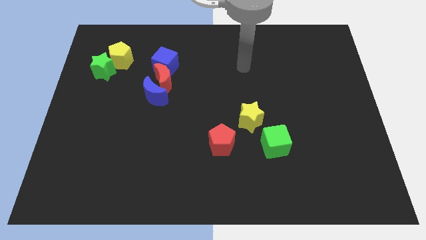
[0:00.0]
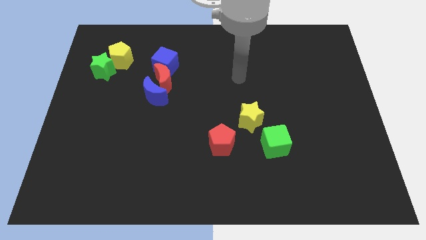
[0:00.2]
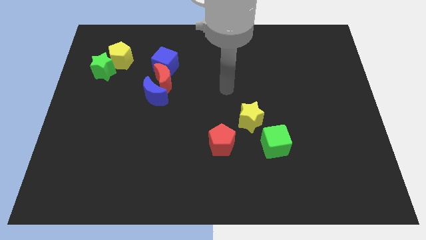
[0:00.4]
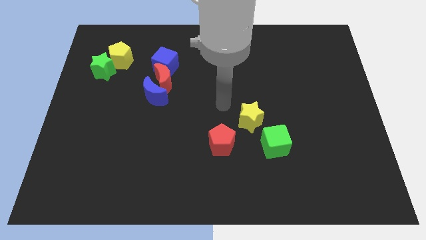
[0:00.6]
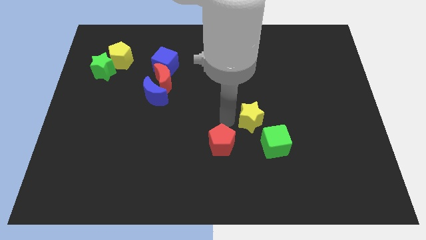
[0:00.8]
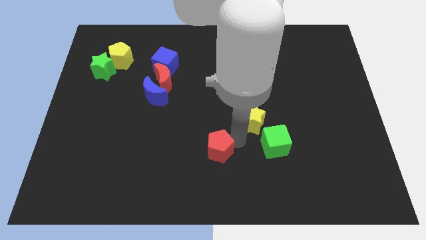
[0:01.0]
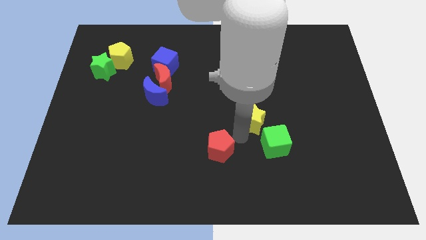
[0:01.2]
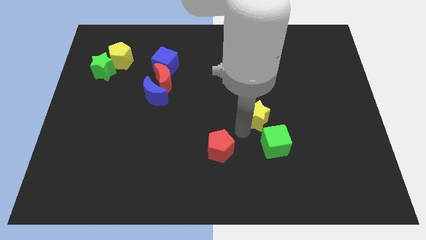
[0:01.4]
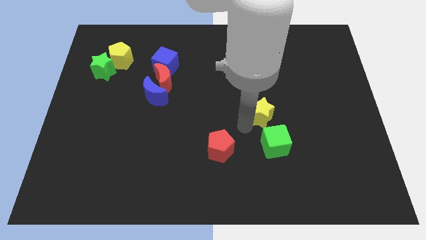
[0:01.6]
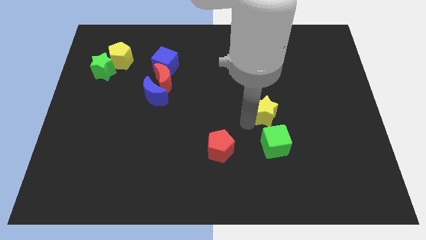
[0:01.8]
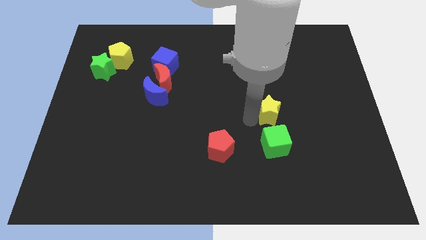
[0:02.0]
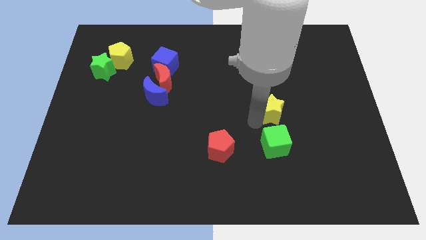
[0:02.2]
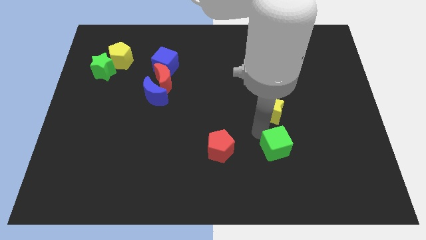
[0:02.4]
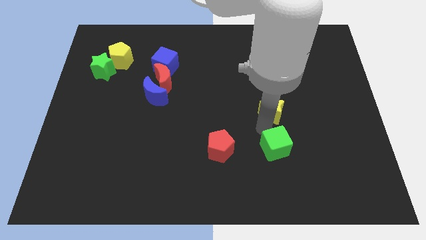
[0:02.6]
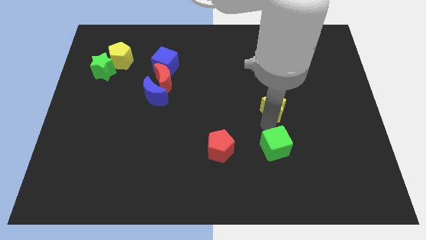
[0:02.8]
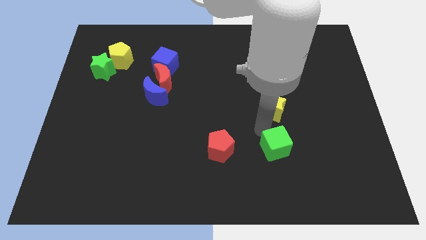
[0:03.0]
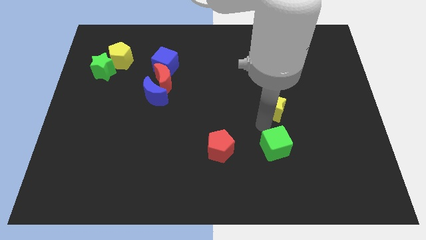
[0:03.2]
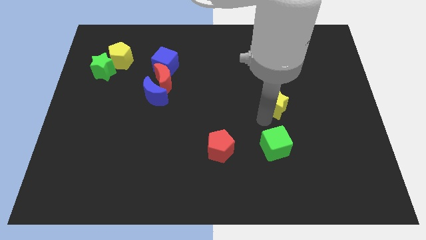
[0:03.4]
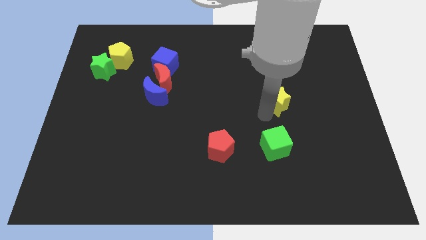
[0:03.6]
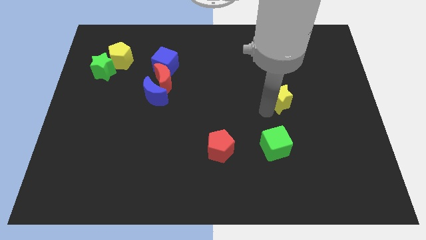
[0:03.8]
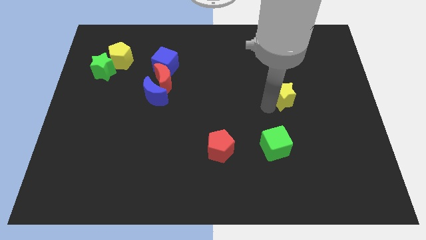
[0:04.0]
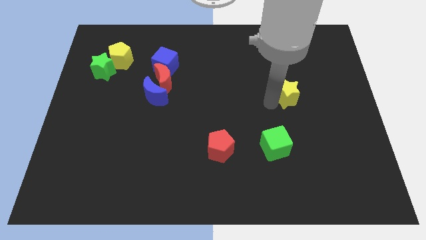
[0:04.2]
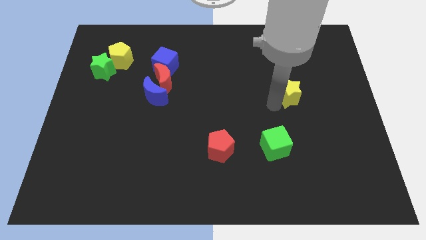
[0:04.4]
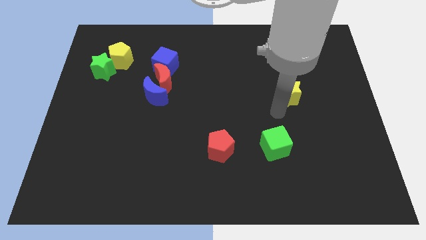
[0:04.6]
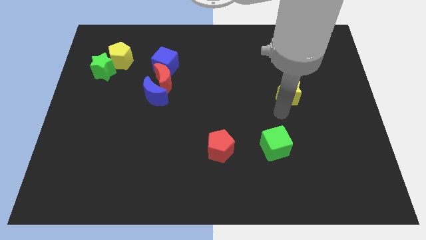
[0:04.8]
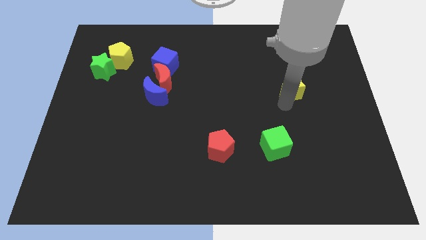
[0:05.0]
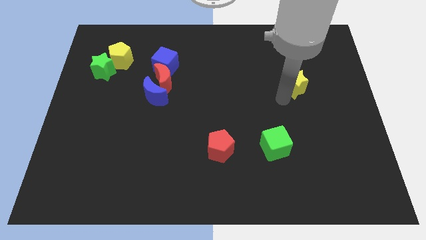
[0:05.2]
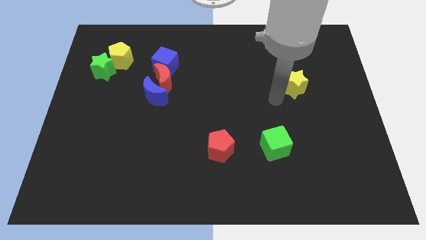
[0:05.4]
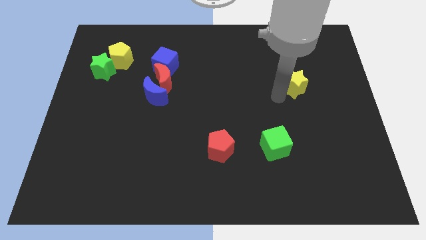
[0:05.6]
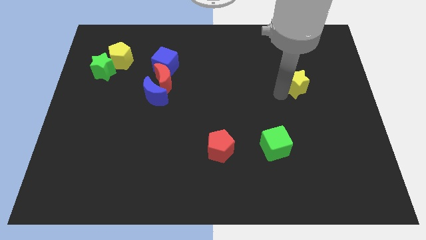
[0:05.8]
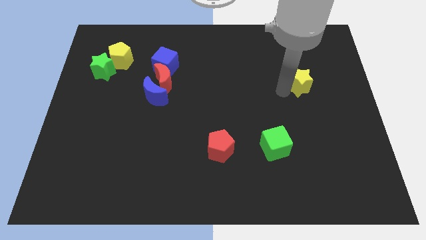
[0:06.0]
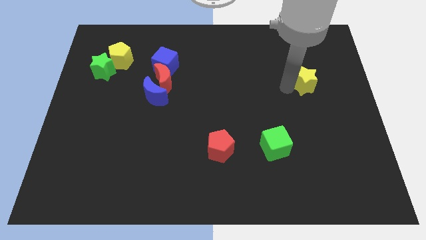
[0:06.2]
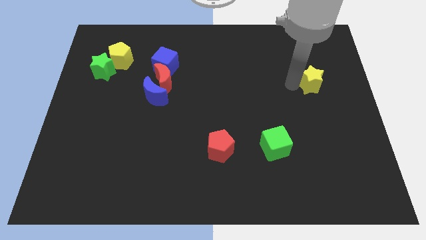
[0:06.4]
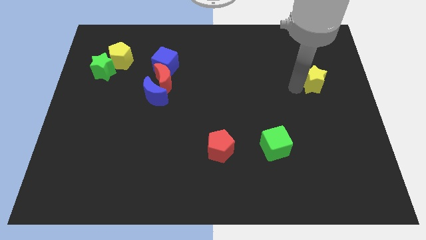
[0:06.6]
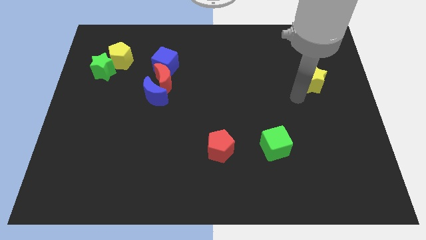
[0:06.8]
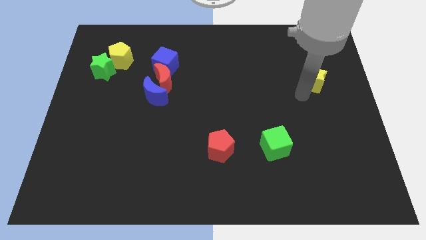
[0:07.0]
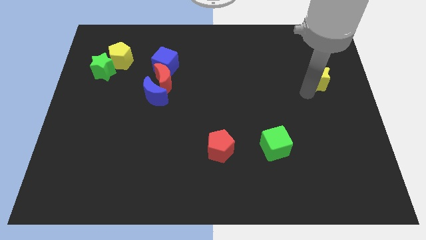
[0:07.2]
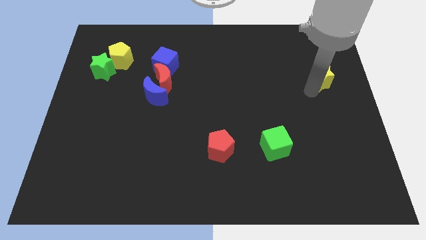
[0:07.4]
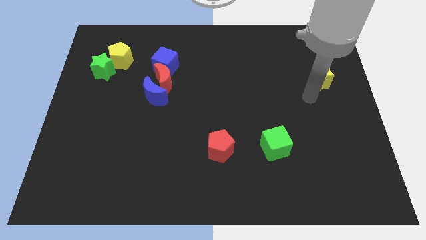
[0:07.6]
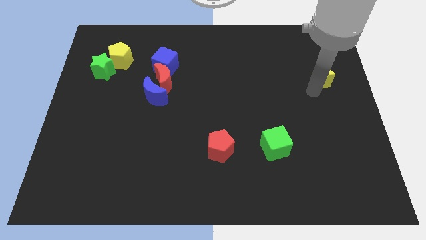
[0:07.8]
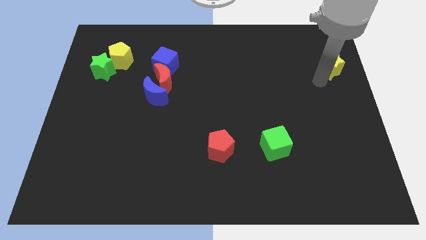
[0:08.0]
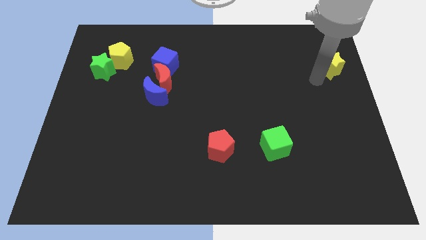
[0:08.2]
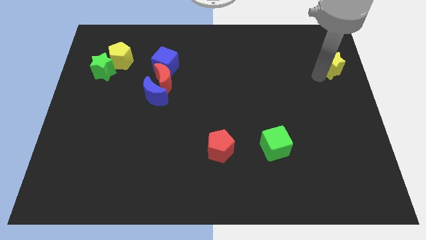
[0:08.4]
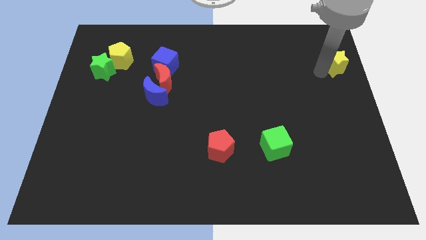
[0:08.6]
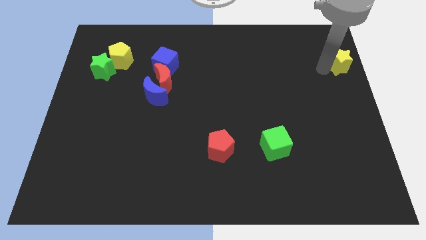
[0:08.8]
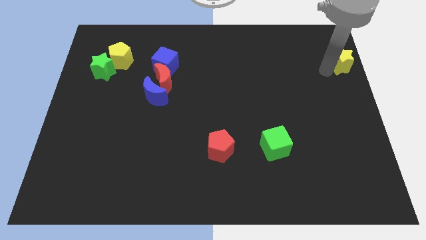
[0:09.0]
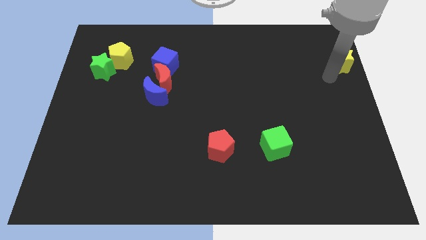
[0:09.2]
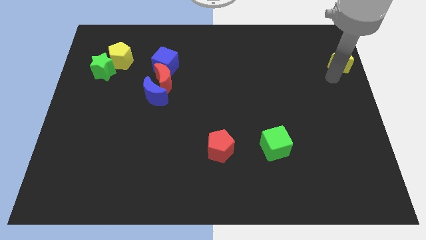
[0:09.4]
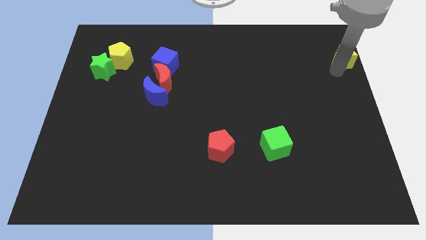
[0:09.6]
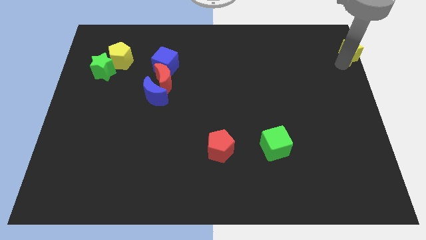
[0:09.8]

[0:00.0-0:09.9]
put the yellow star to the upper right corner

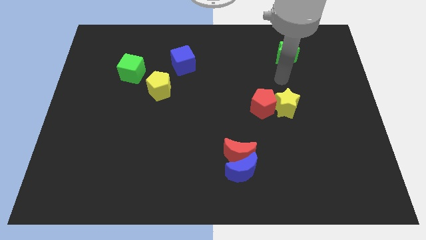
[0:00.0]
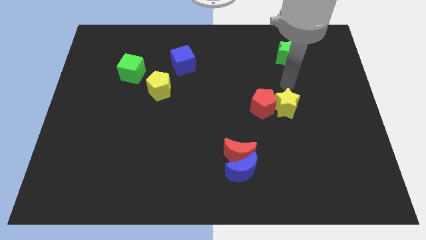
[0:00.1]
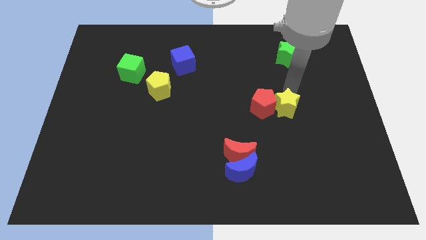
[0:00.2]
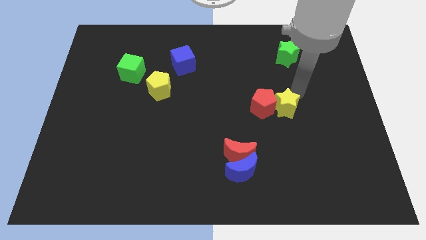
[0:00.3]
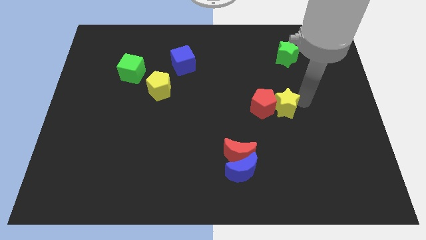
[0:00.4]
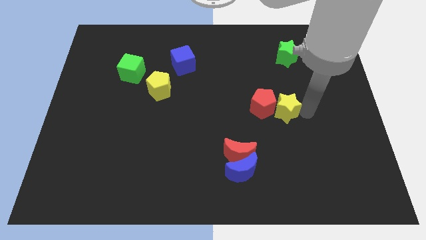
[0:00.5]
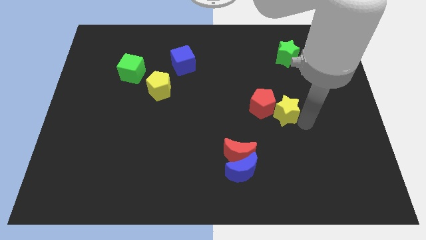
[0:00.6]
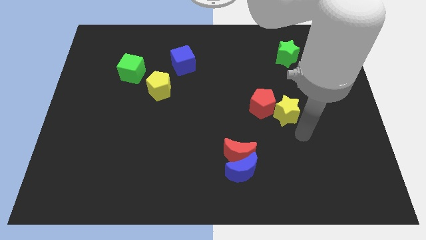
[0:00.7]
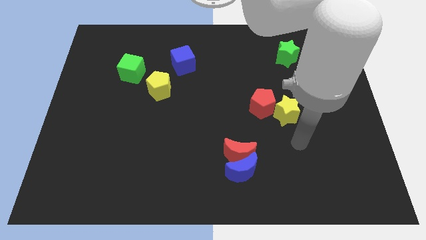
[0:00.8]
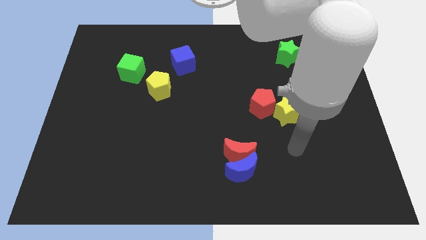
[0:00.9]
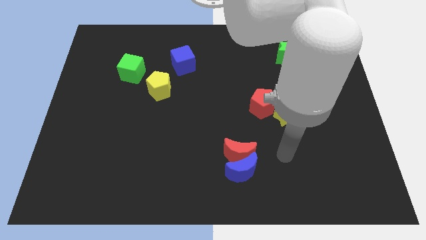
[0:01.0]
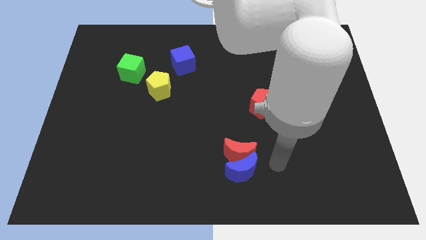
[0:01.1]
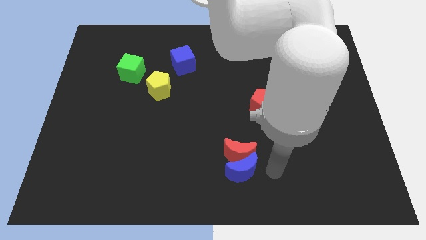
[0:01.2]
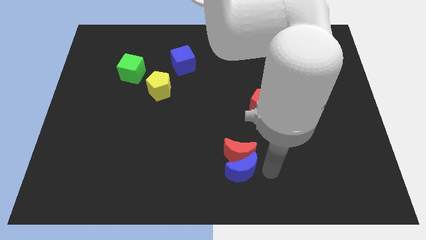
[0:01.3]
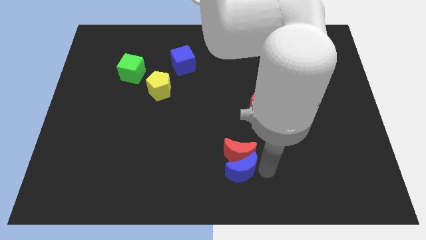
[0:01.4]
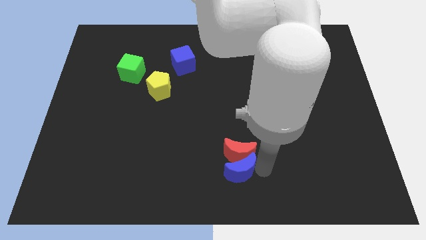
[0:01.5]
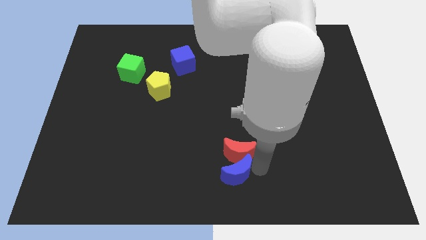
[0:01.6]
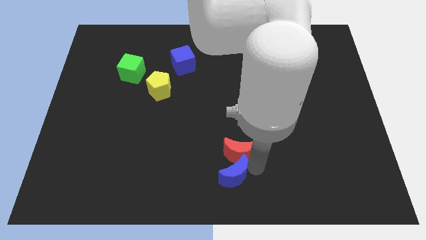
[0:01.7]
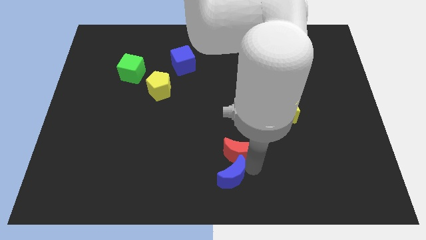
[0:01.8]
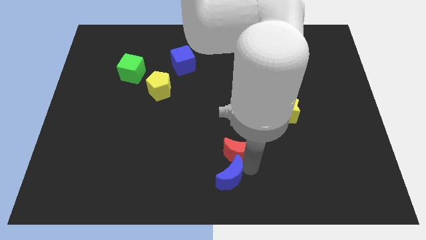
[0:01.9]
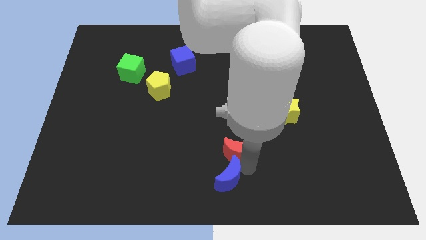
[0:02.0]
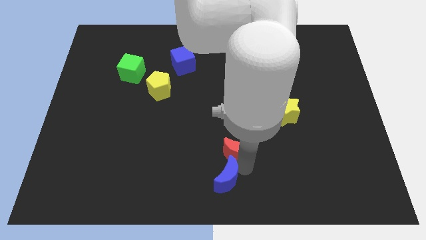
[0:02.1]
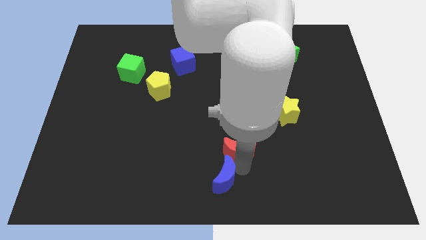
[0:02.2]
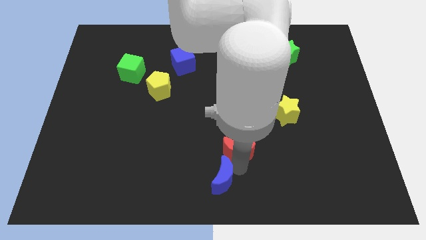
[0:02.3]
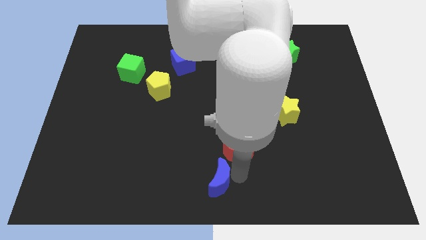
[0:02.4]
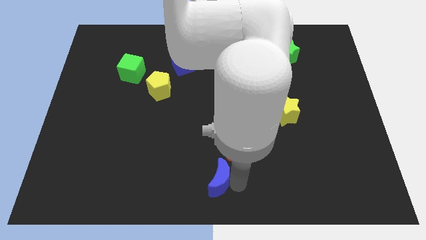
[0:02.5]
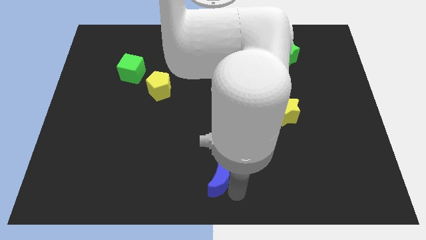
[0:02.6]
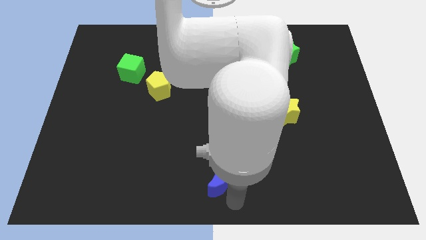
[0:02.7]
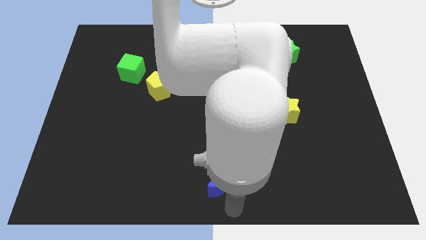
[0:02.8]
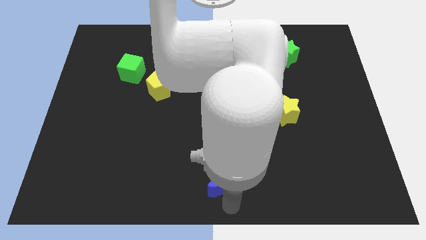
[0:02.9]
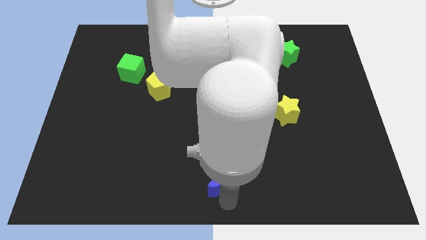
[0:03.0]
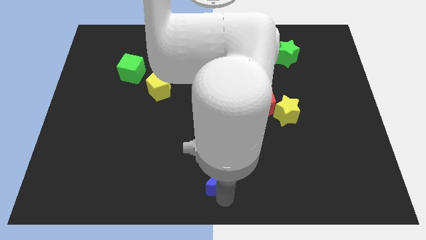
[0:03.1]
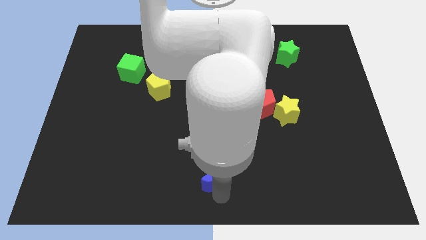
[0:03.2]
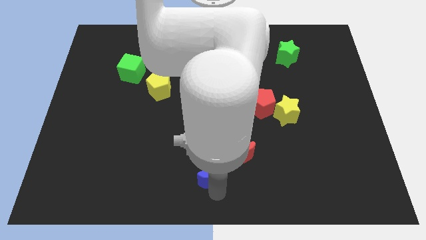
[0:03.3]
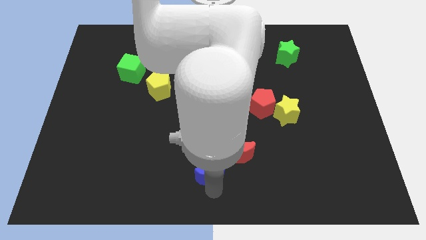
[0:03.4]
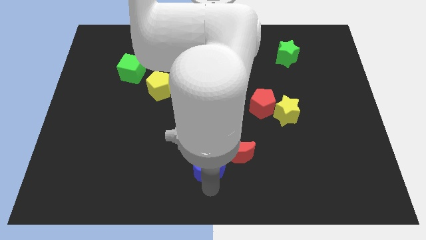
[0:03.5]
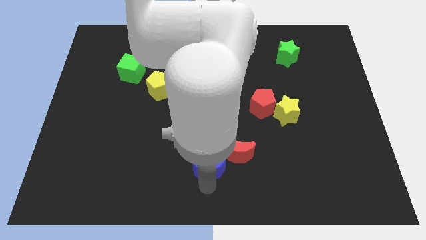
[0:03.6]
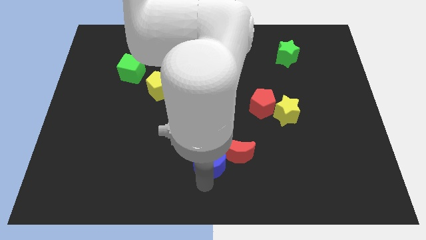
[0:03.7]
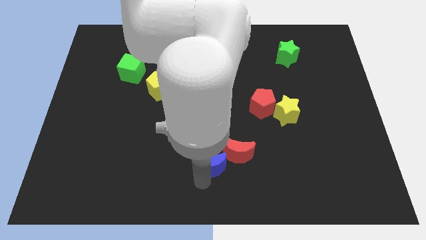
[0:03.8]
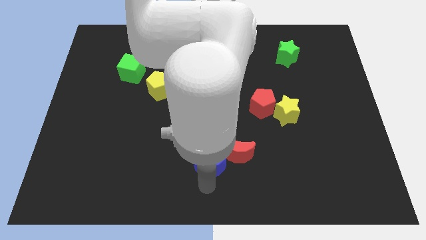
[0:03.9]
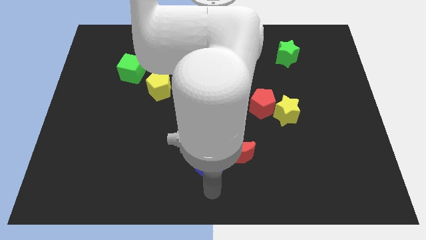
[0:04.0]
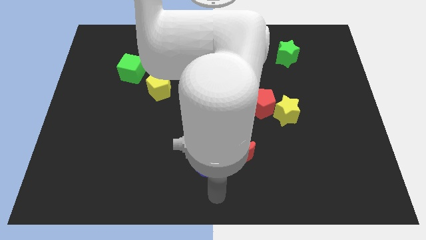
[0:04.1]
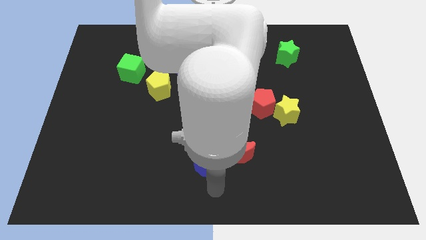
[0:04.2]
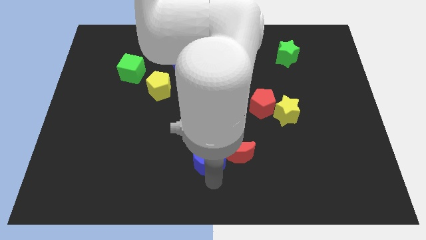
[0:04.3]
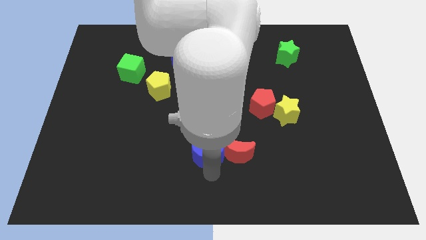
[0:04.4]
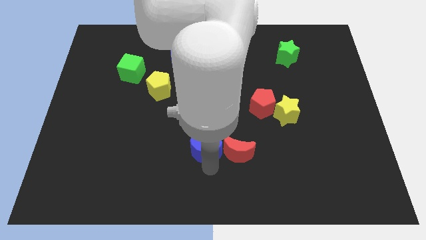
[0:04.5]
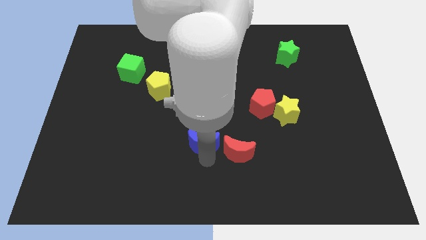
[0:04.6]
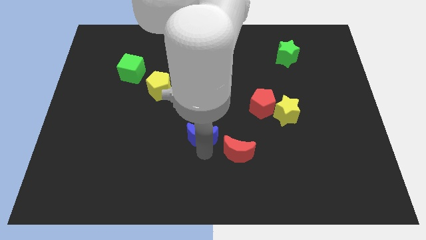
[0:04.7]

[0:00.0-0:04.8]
move the blue moon to the center of the board
